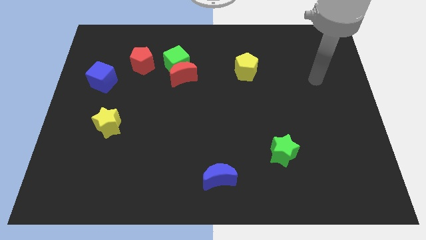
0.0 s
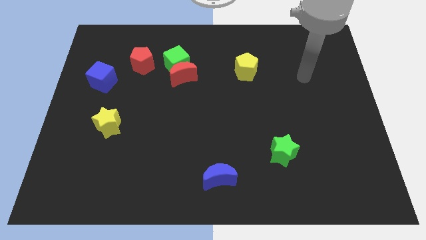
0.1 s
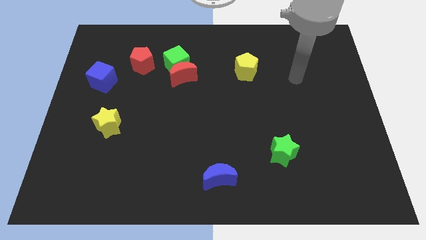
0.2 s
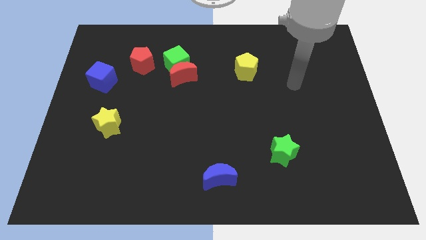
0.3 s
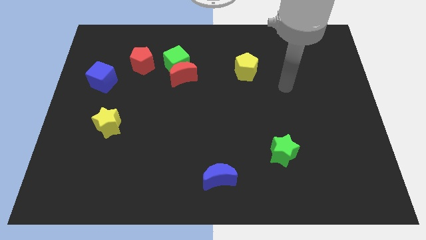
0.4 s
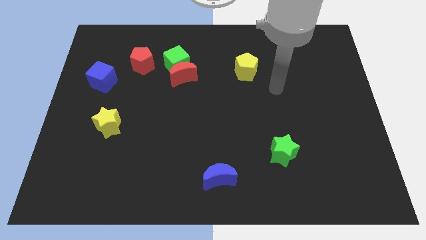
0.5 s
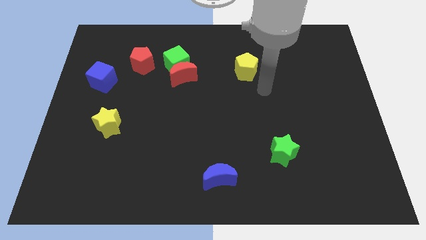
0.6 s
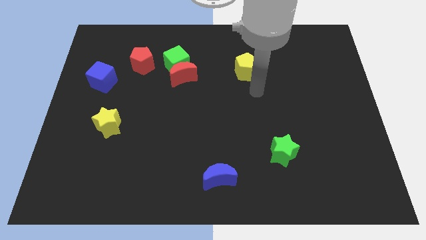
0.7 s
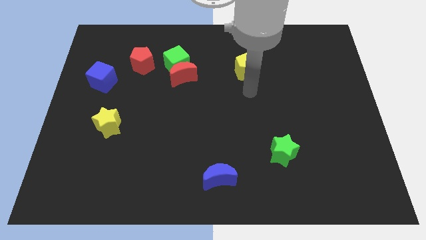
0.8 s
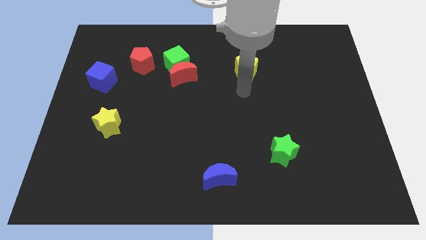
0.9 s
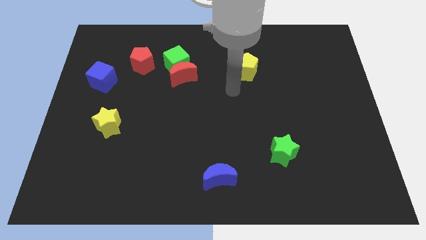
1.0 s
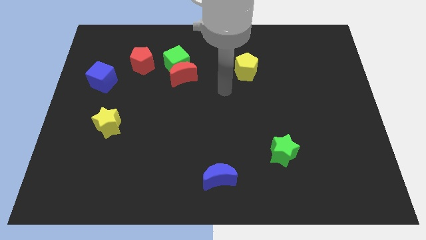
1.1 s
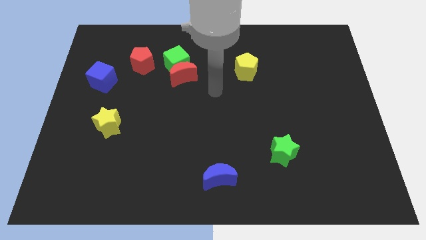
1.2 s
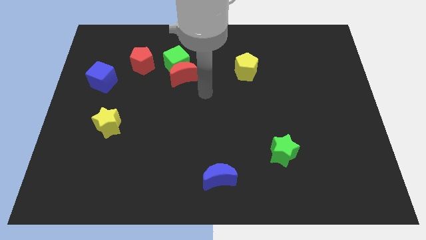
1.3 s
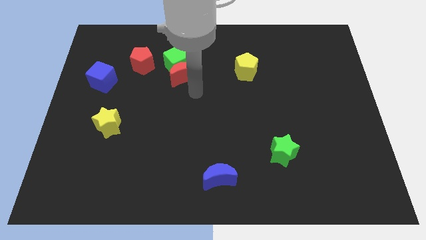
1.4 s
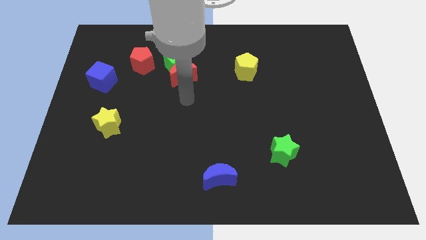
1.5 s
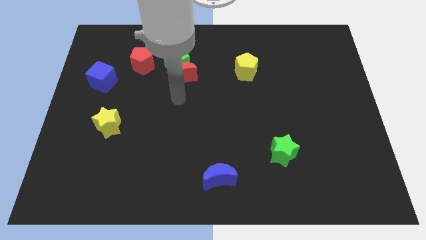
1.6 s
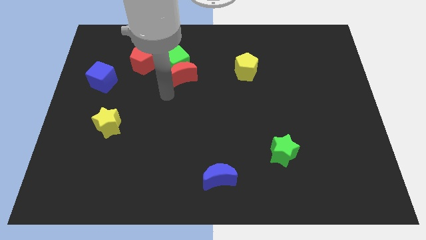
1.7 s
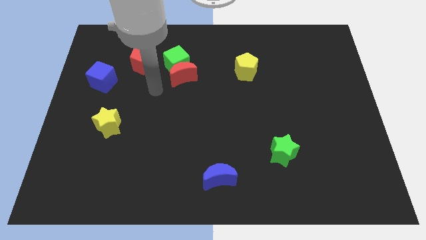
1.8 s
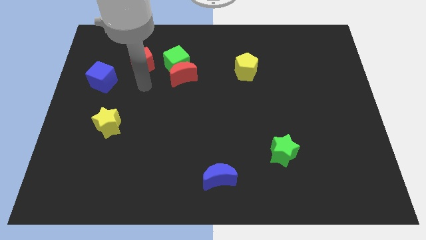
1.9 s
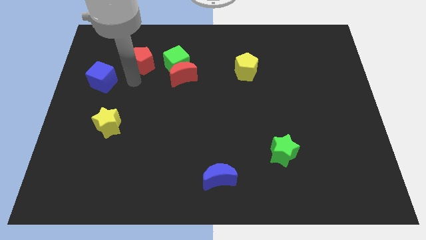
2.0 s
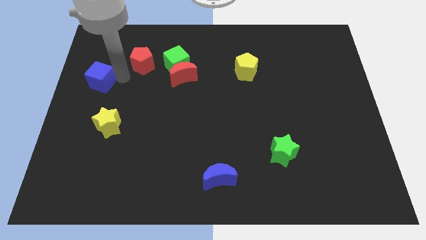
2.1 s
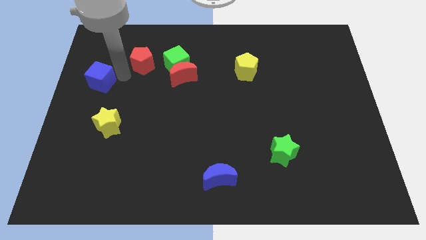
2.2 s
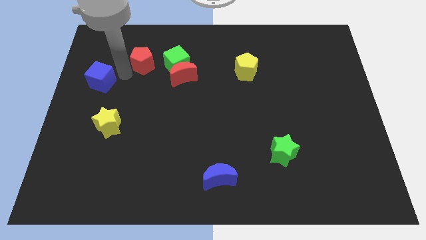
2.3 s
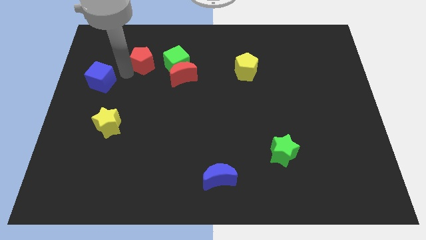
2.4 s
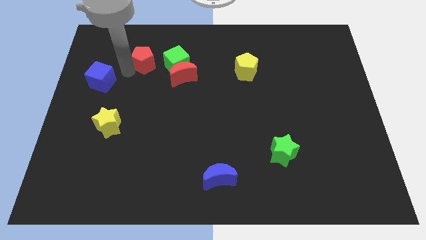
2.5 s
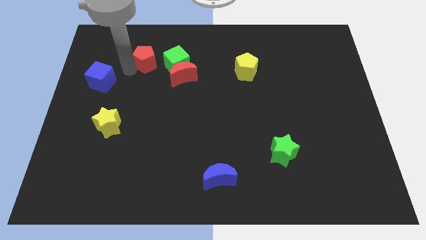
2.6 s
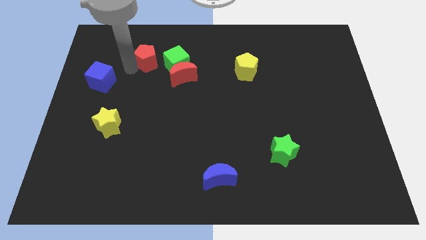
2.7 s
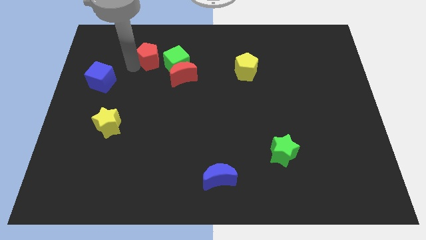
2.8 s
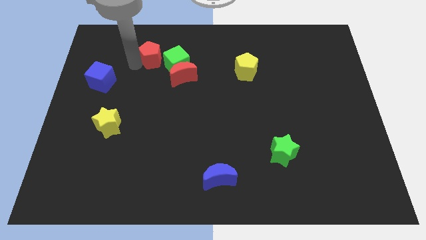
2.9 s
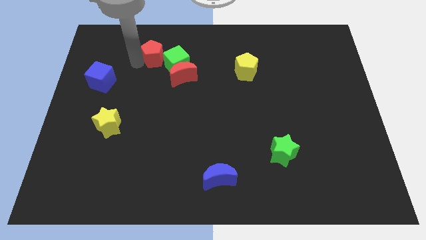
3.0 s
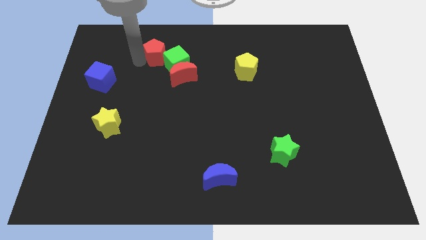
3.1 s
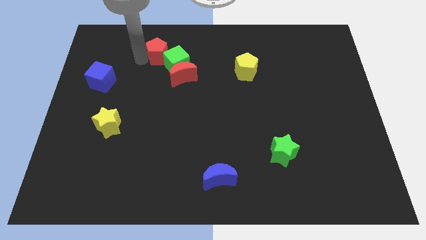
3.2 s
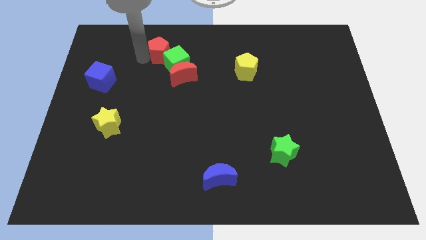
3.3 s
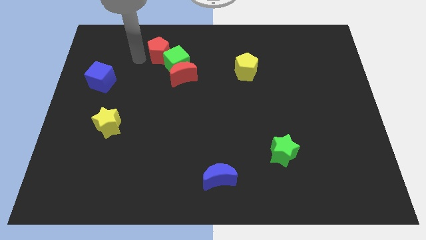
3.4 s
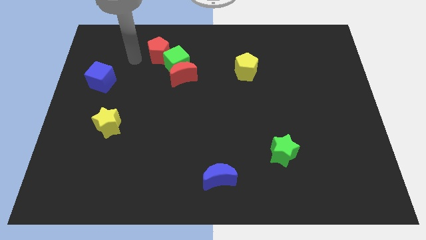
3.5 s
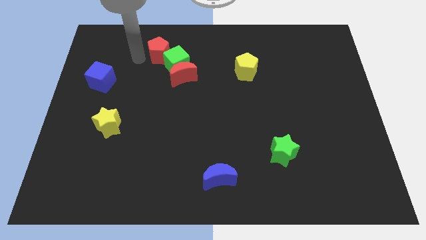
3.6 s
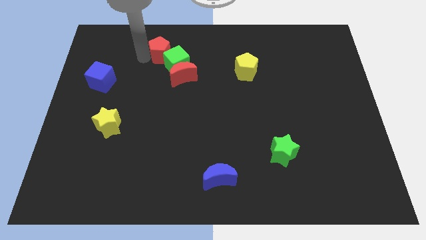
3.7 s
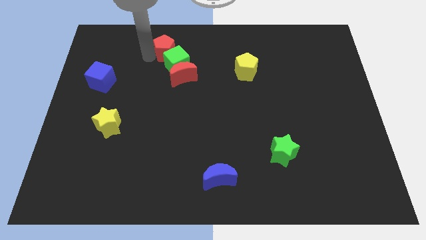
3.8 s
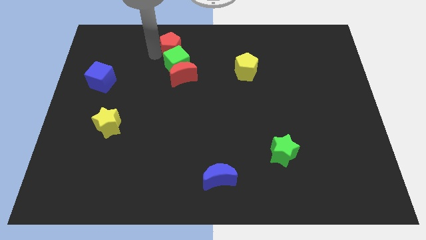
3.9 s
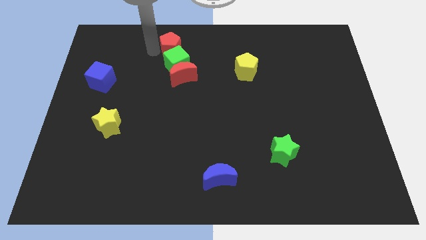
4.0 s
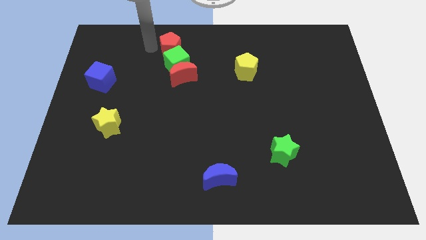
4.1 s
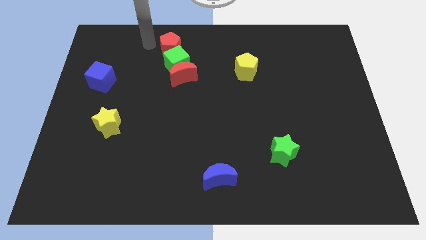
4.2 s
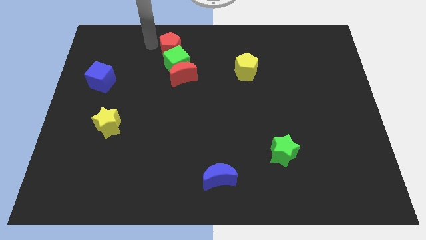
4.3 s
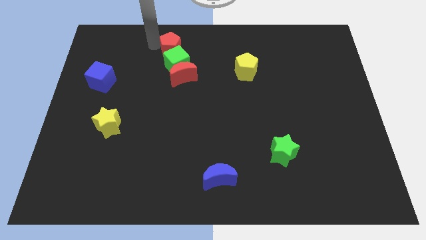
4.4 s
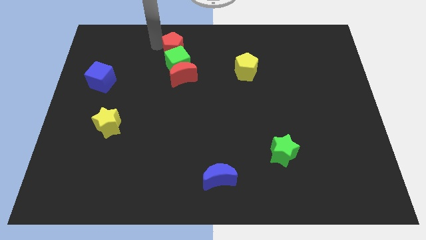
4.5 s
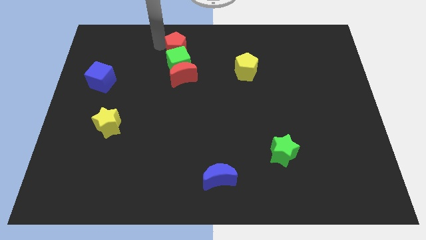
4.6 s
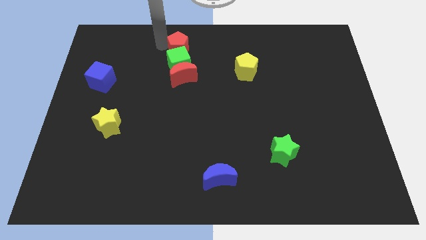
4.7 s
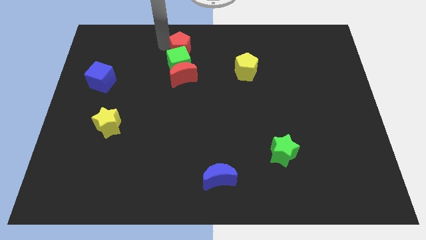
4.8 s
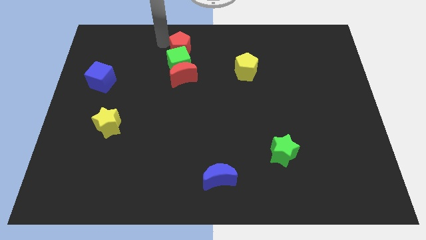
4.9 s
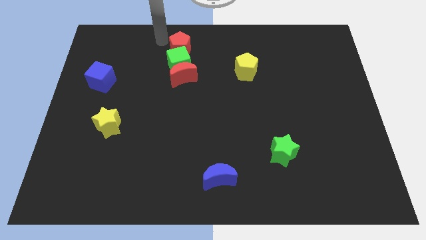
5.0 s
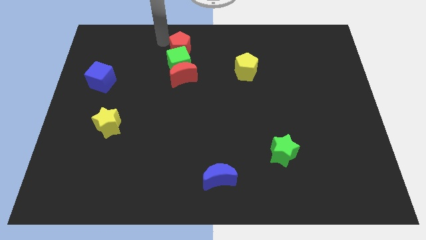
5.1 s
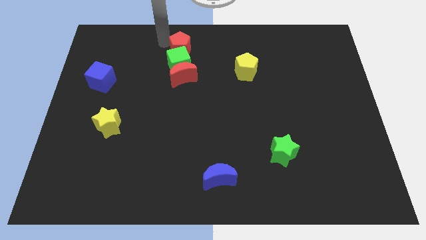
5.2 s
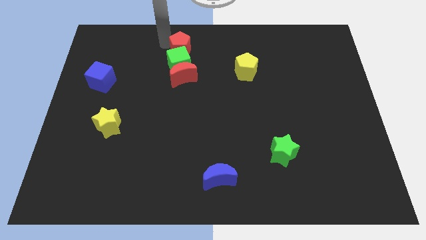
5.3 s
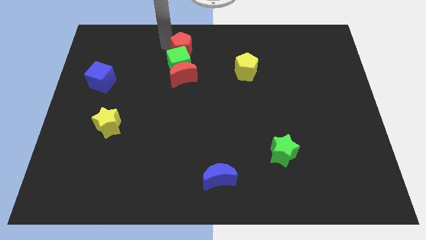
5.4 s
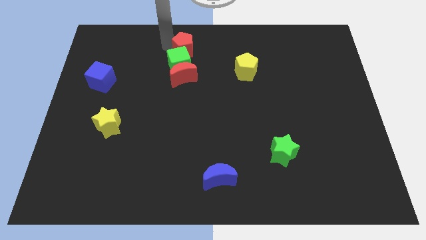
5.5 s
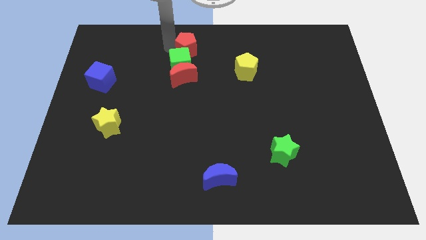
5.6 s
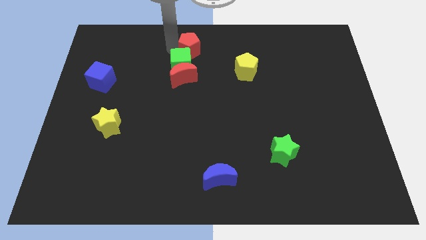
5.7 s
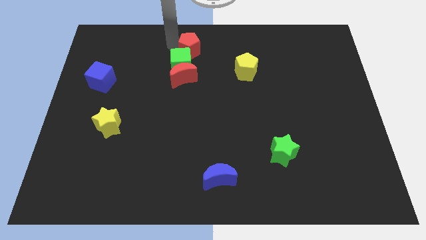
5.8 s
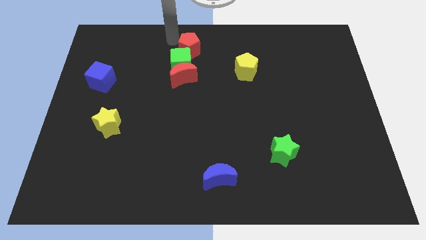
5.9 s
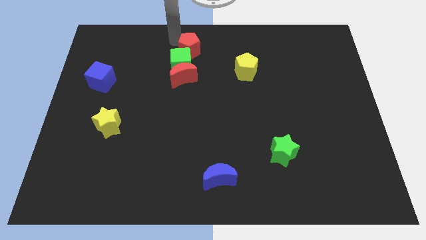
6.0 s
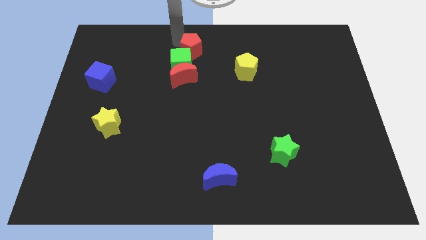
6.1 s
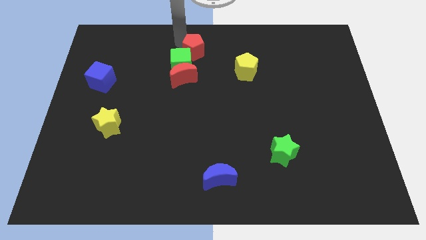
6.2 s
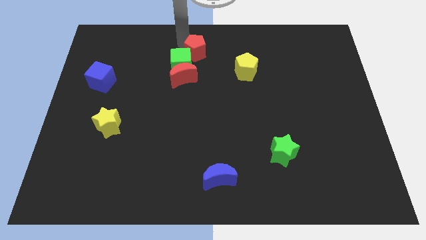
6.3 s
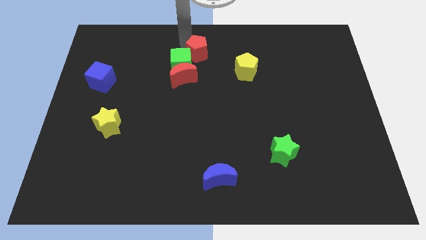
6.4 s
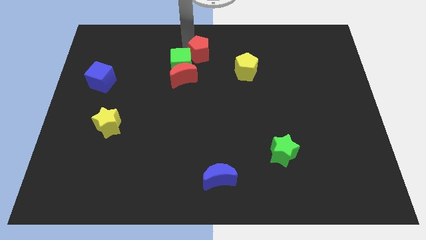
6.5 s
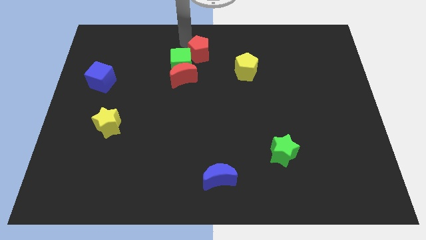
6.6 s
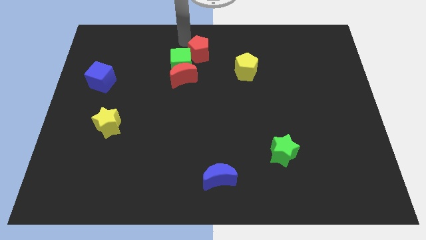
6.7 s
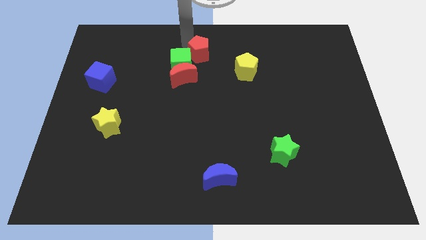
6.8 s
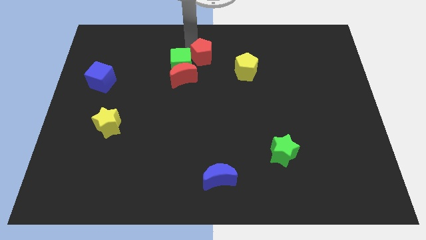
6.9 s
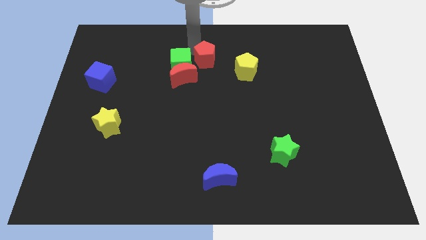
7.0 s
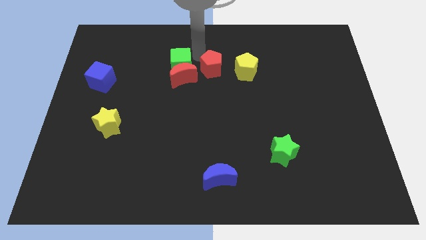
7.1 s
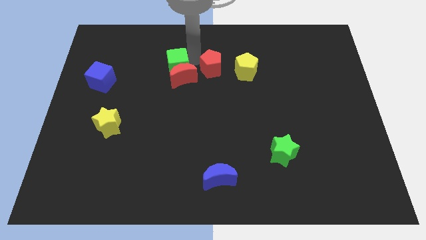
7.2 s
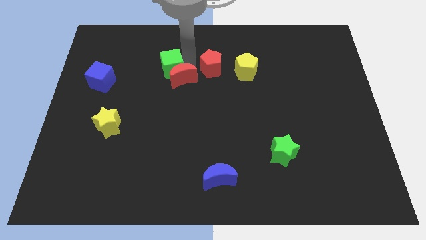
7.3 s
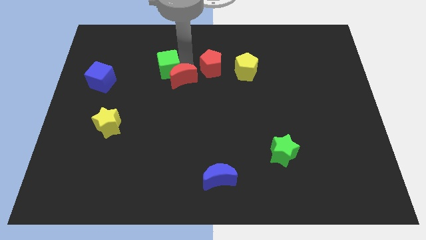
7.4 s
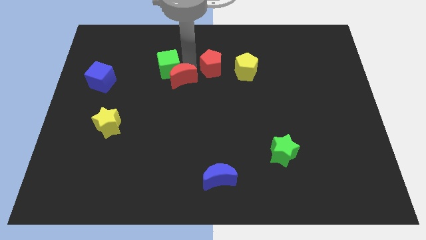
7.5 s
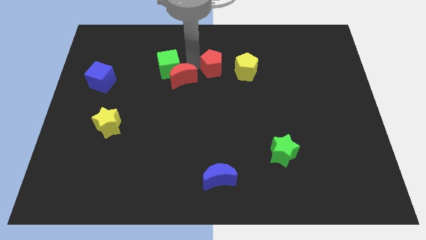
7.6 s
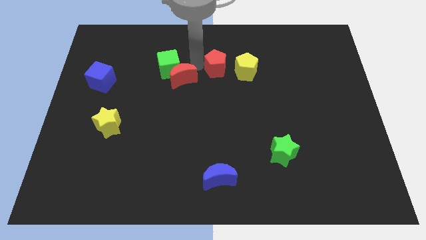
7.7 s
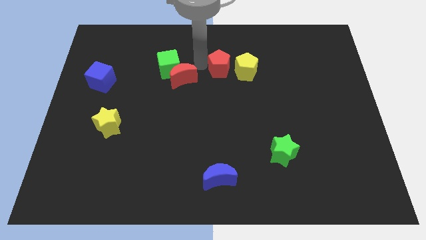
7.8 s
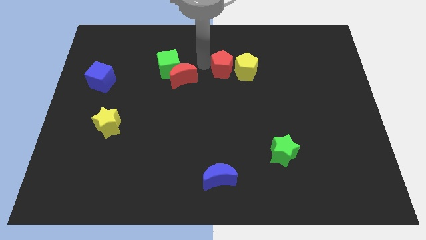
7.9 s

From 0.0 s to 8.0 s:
put the red pentagon towards the yellow pentagon
